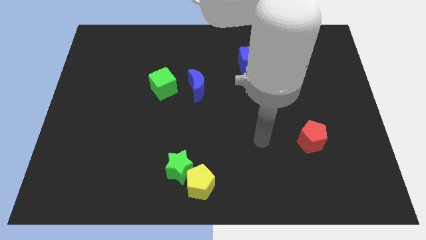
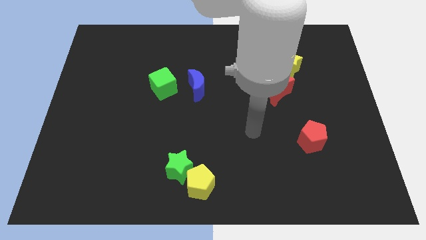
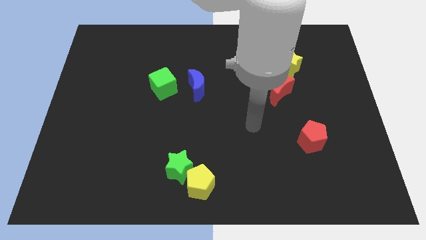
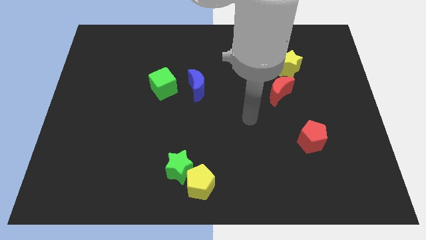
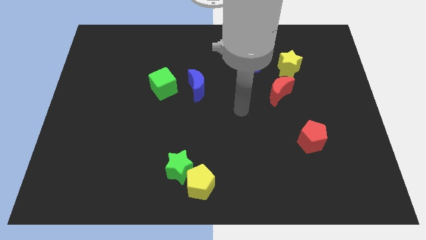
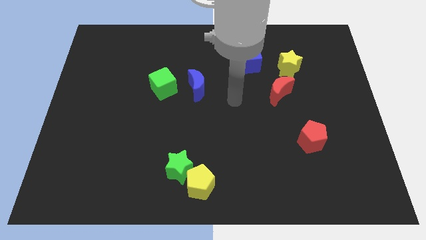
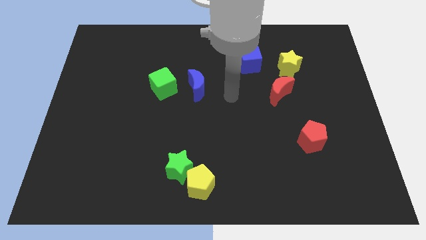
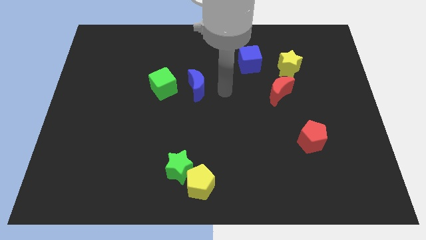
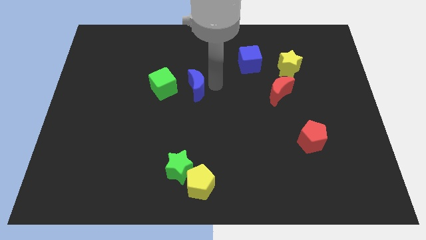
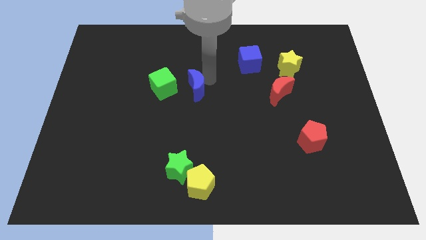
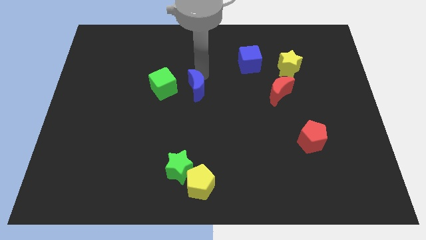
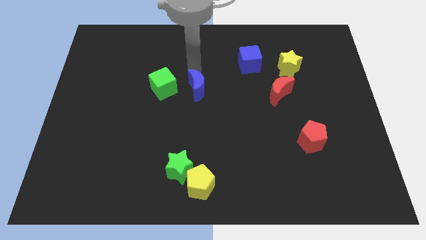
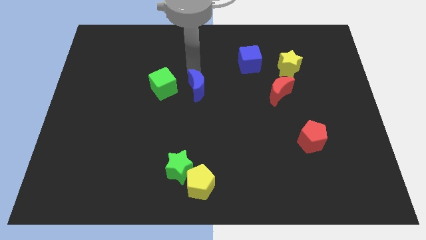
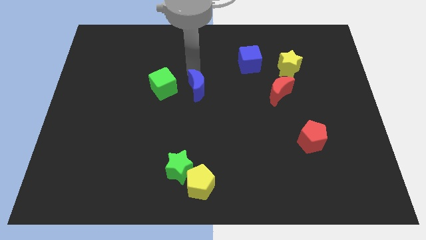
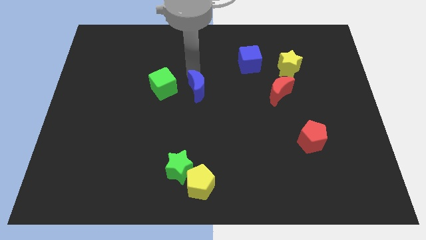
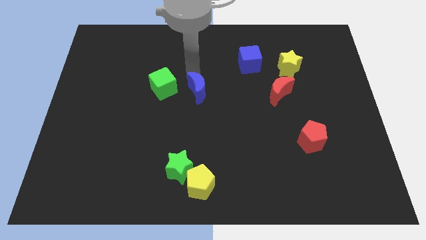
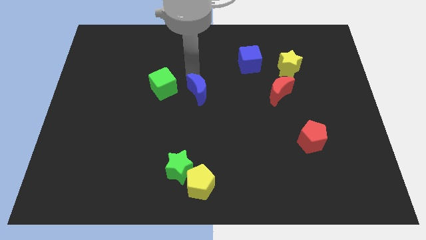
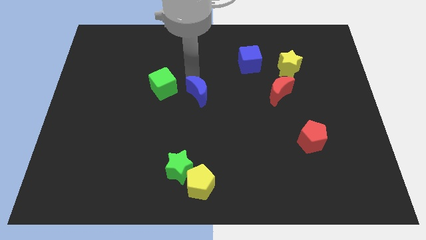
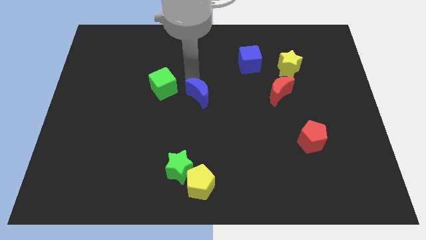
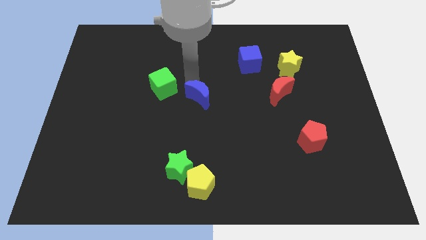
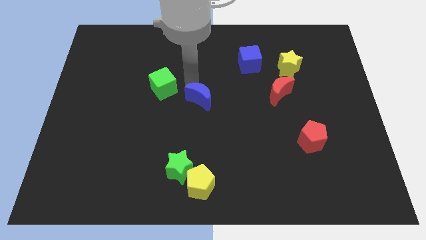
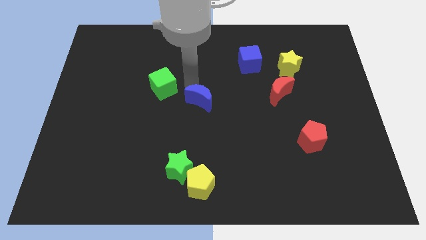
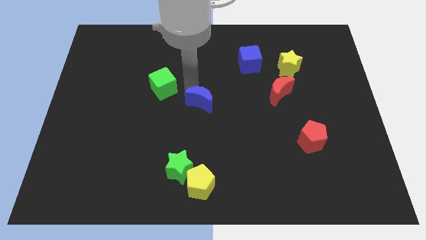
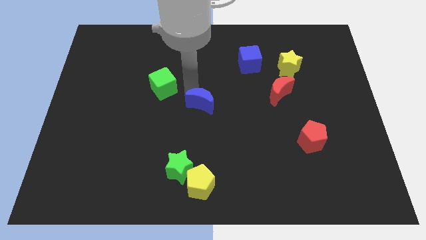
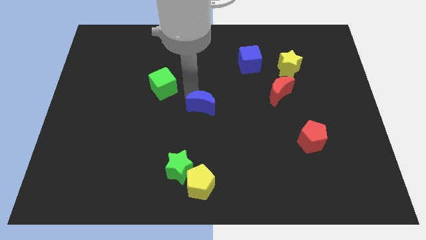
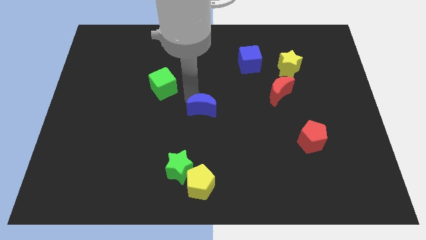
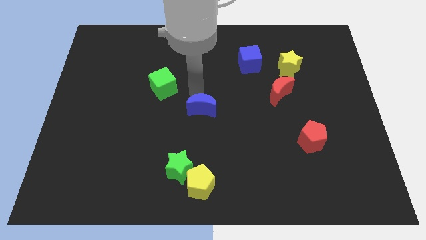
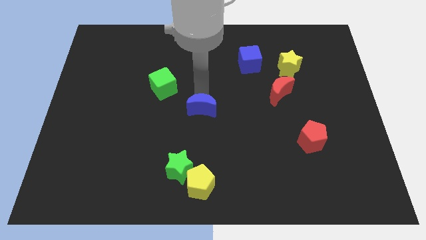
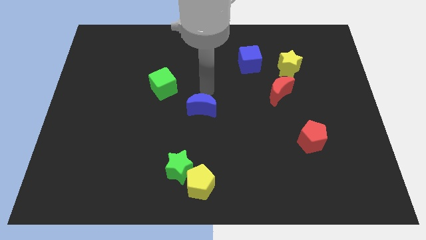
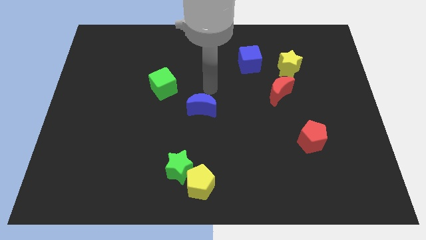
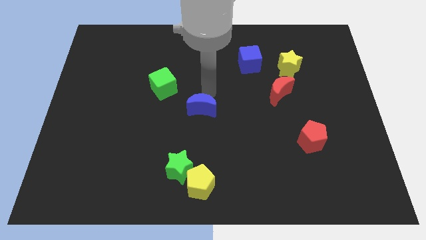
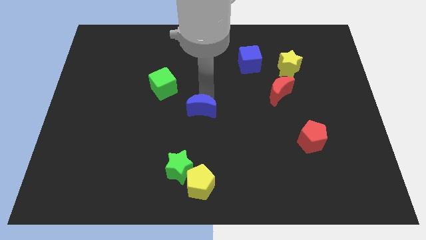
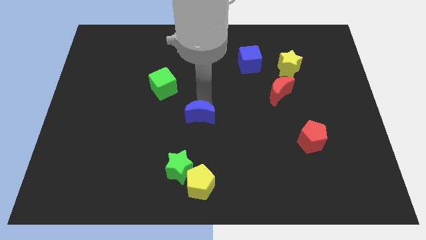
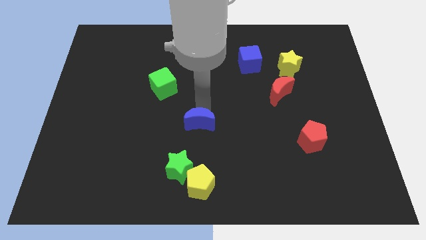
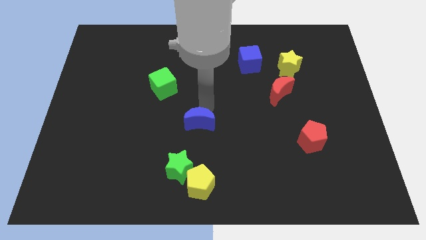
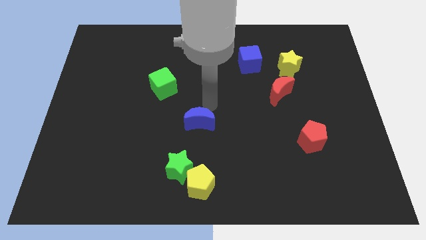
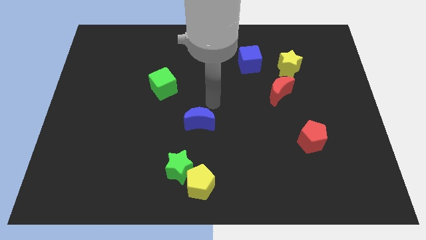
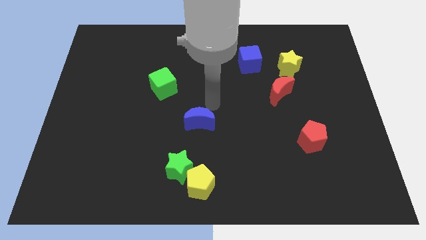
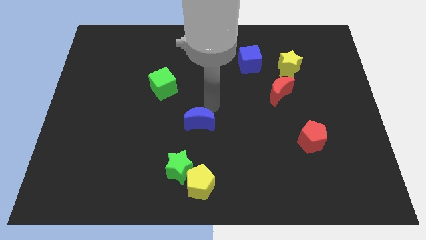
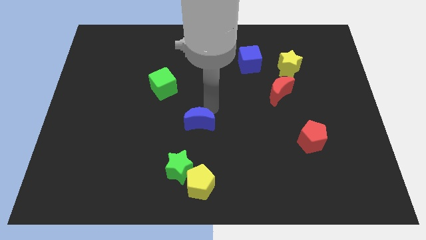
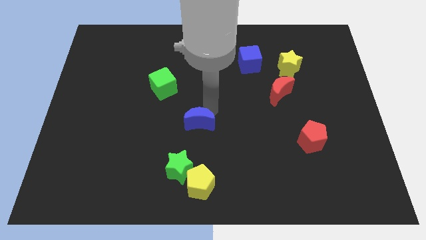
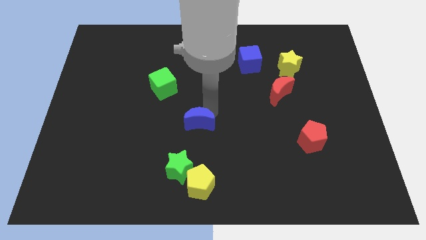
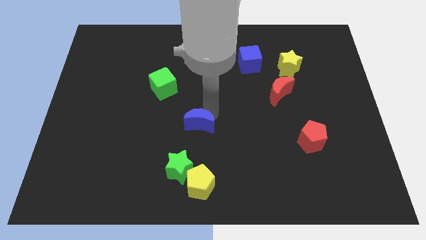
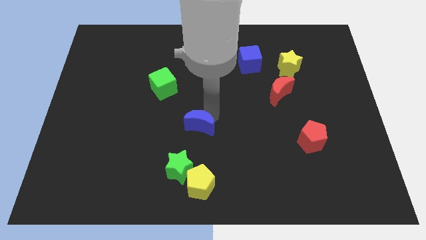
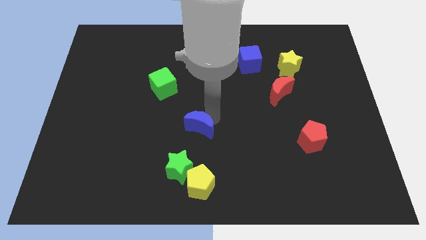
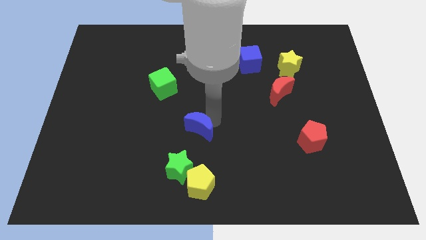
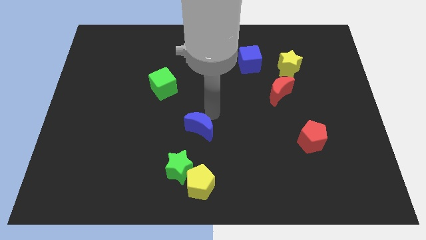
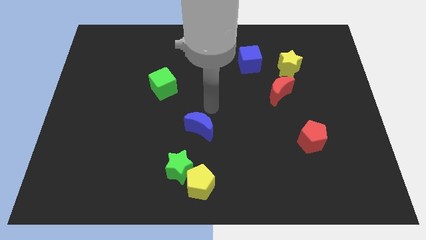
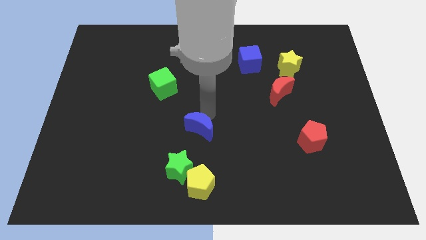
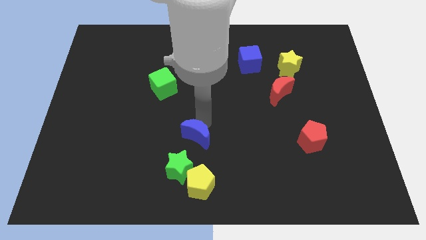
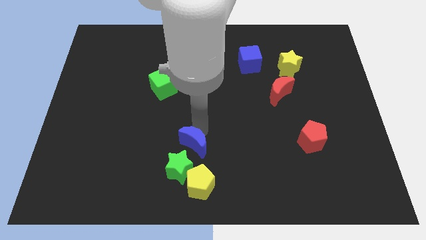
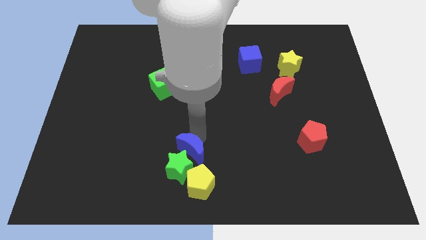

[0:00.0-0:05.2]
push the blue moon towards the green star

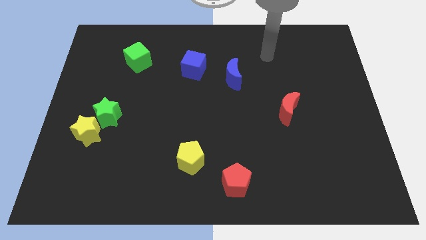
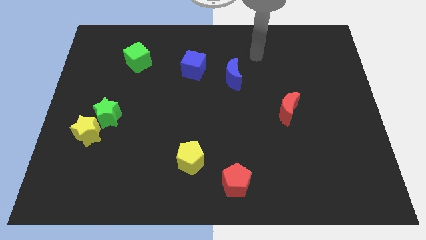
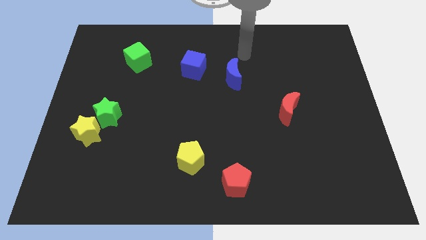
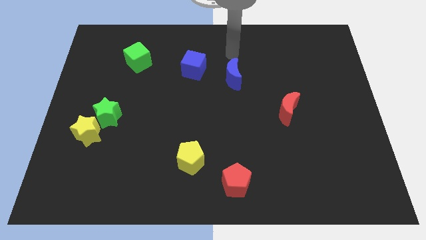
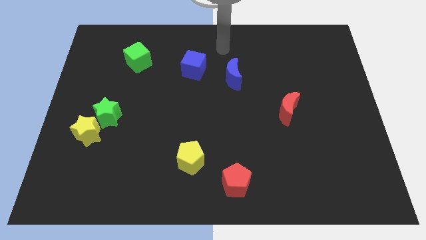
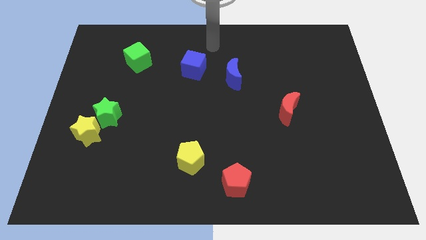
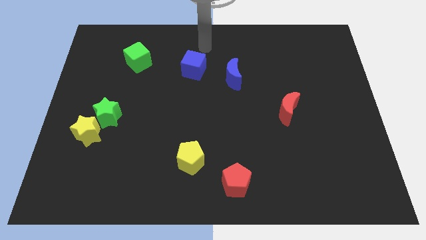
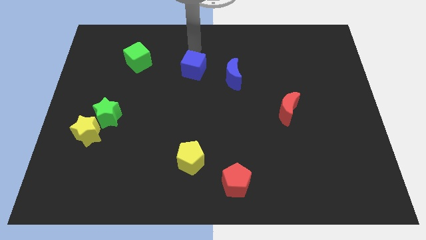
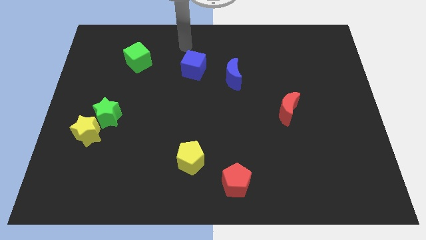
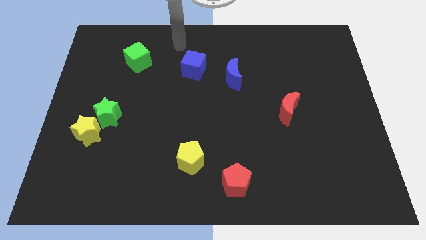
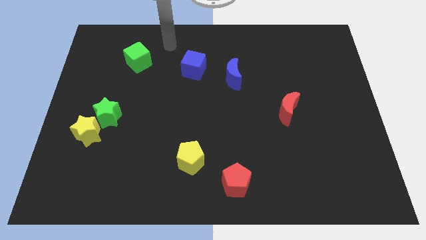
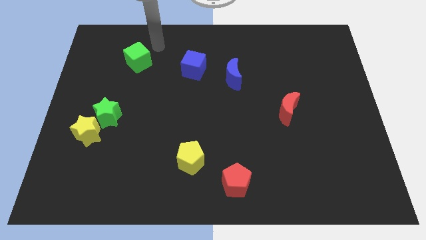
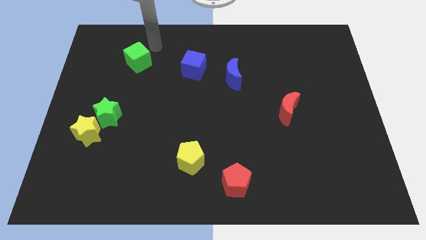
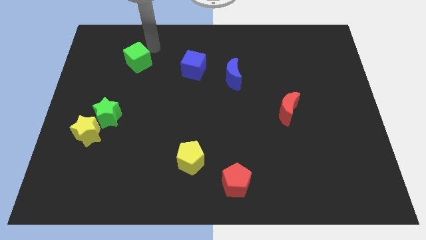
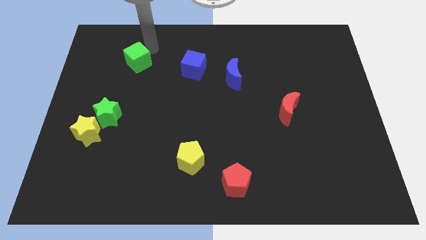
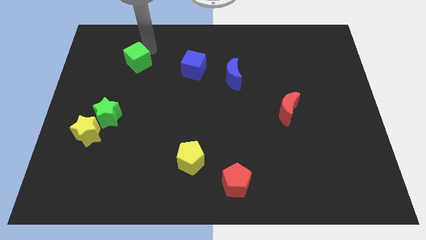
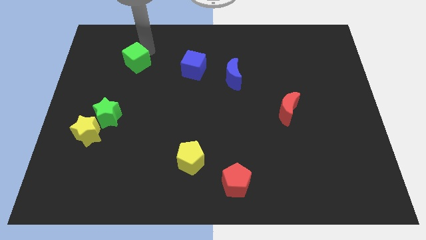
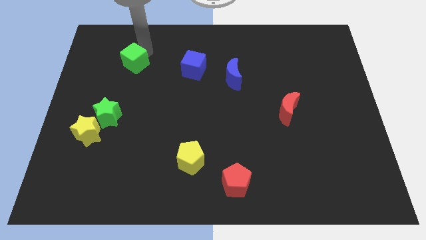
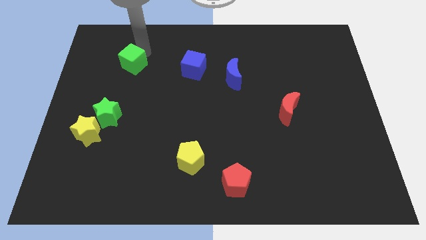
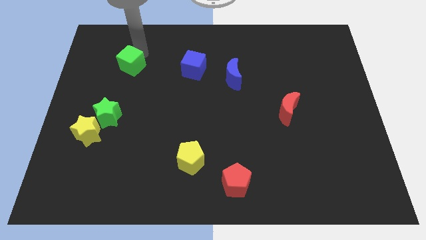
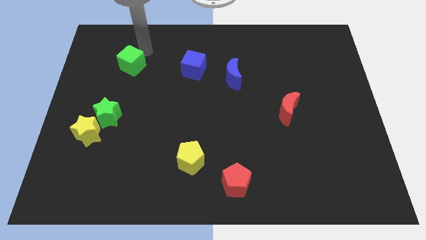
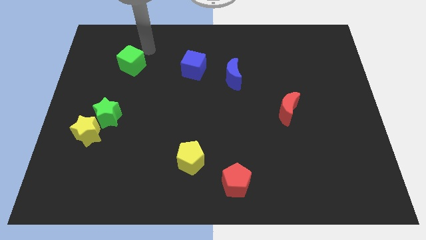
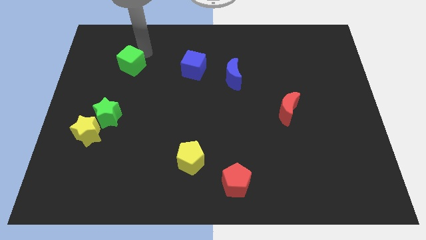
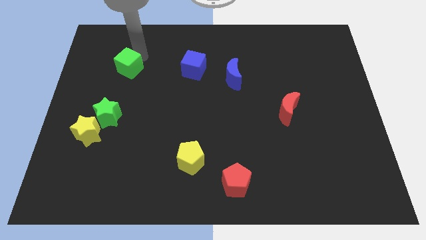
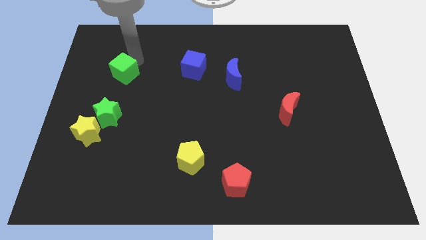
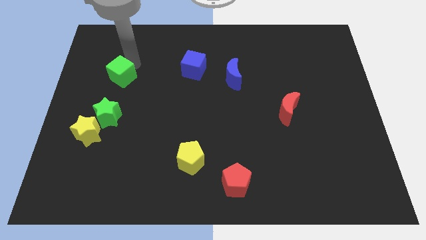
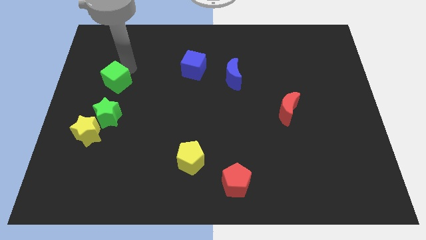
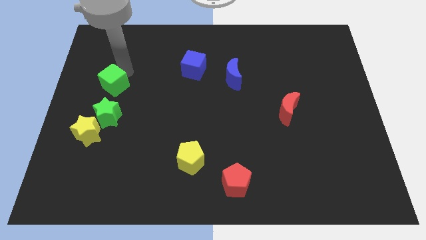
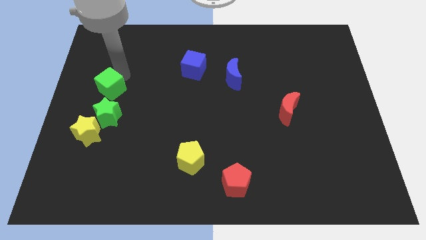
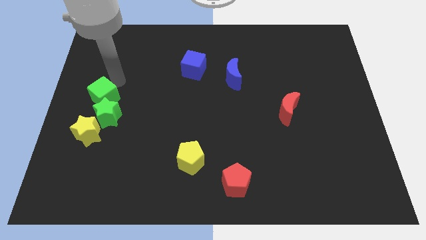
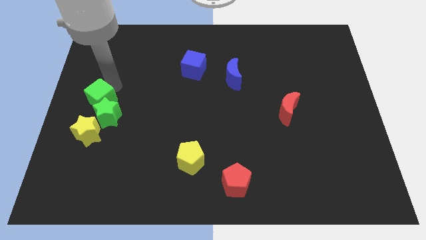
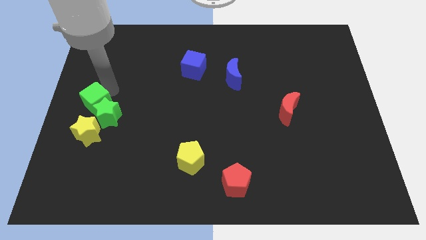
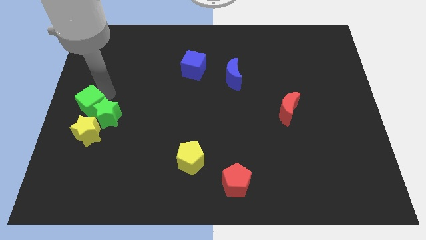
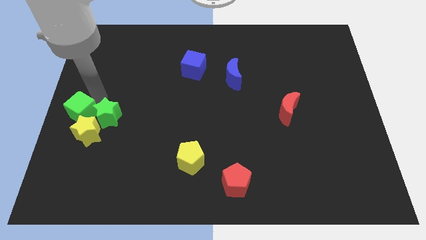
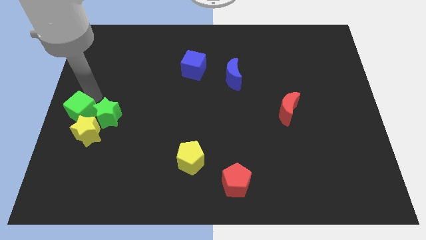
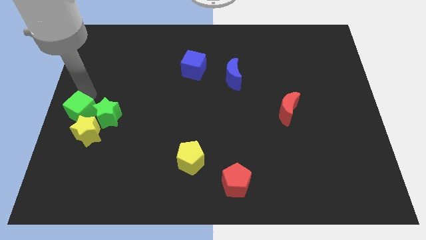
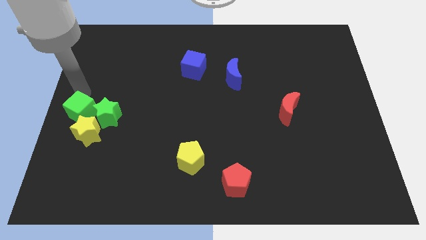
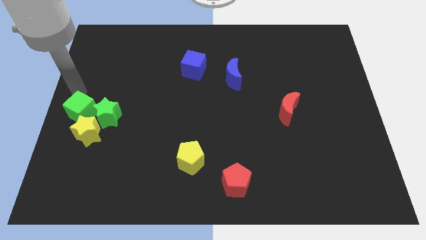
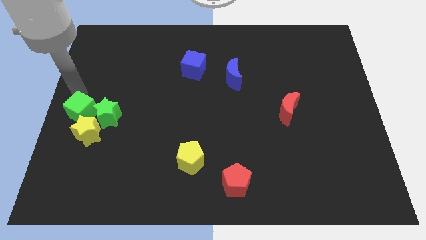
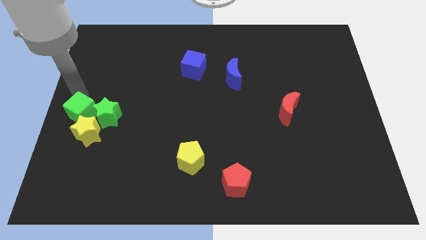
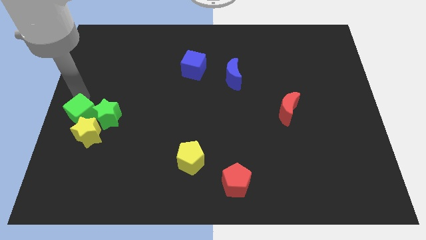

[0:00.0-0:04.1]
put the green cube close to the yellow star
